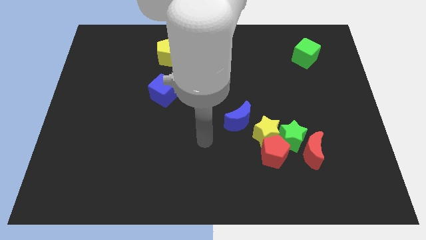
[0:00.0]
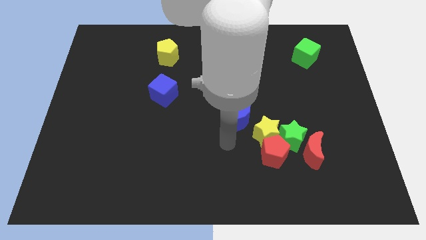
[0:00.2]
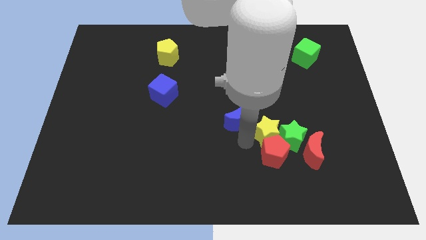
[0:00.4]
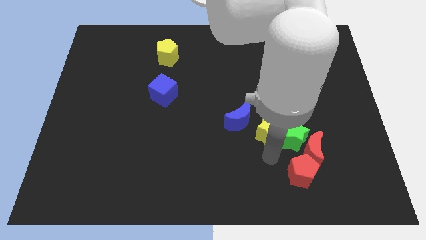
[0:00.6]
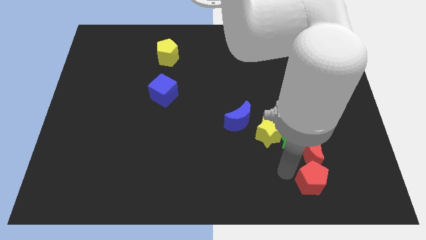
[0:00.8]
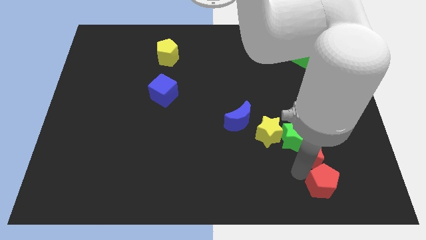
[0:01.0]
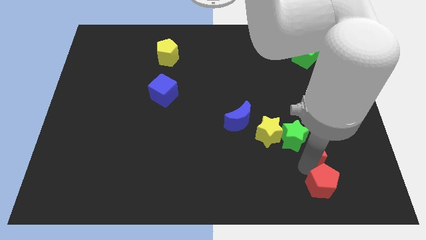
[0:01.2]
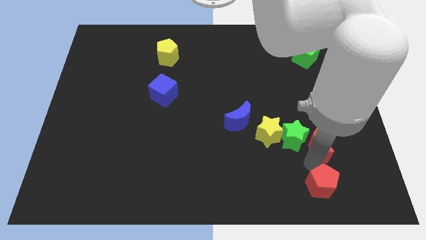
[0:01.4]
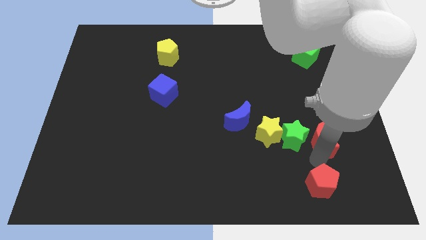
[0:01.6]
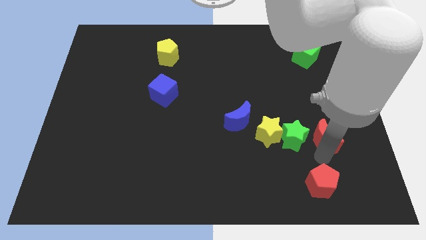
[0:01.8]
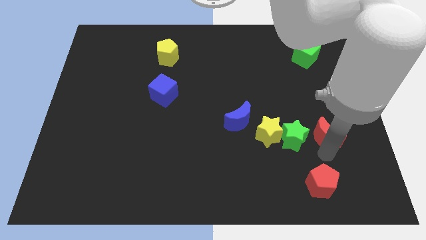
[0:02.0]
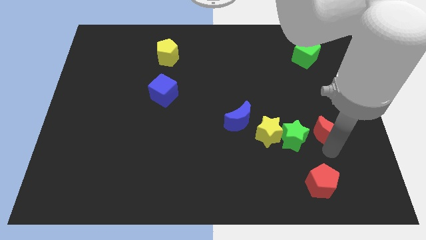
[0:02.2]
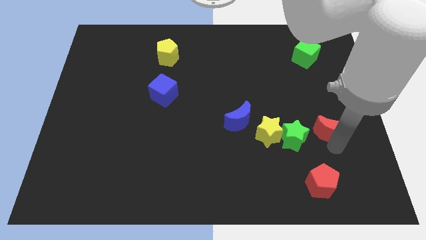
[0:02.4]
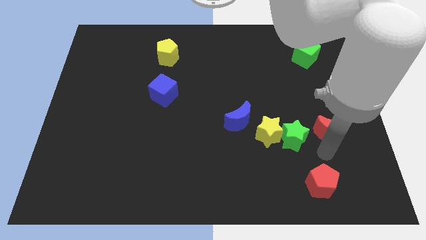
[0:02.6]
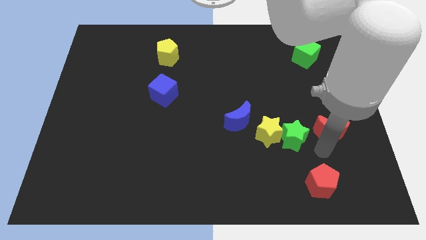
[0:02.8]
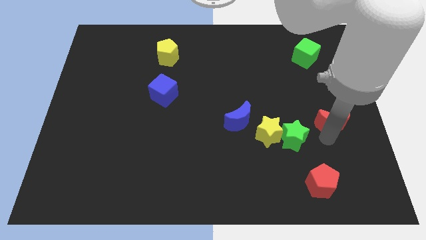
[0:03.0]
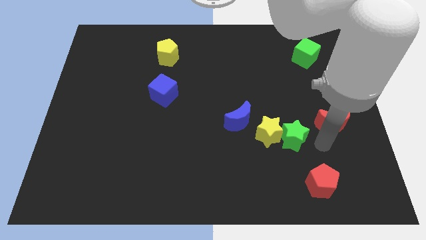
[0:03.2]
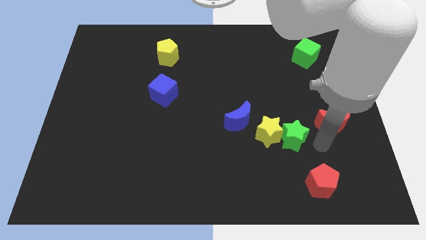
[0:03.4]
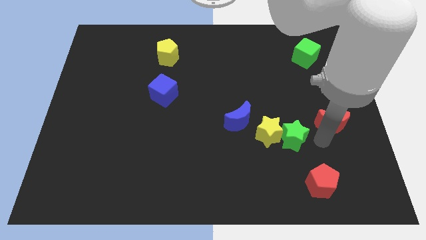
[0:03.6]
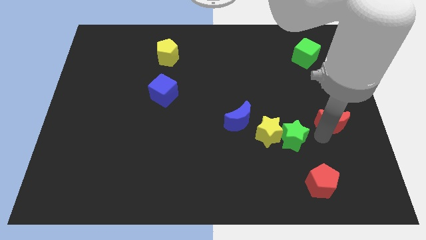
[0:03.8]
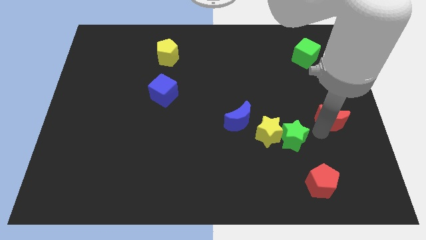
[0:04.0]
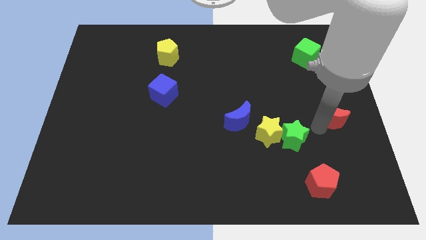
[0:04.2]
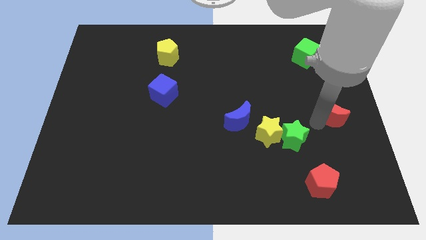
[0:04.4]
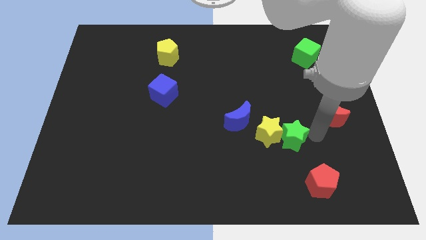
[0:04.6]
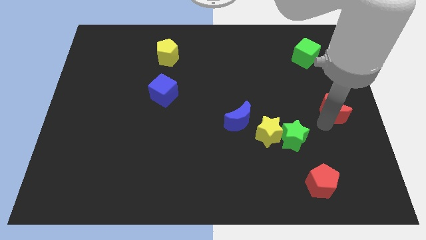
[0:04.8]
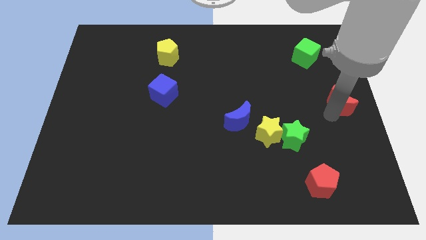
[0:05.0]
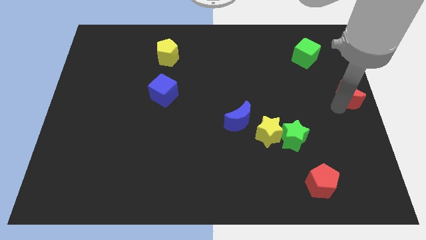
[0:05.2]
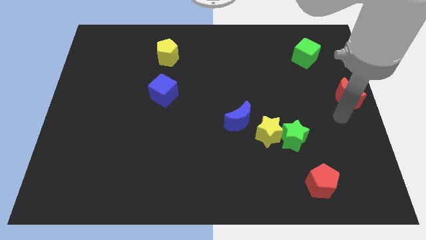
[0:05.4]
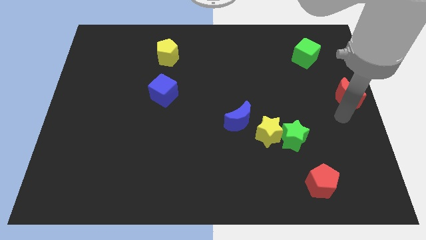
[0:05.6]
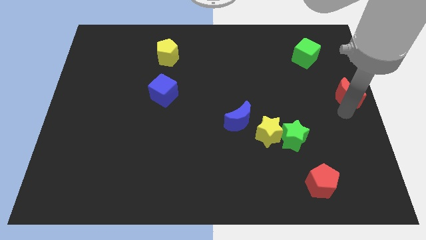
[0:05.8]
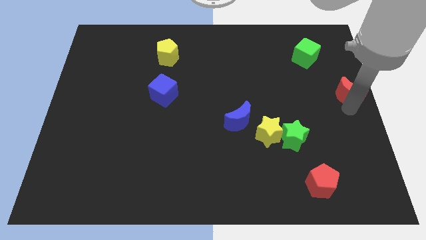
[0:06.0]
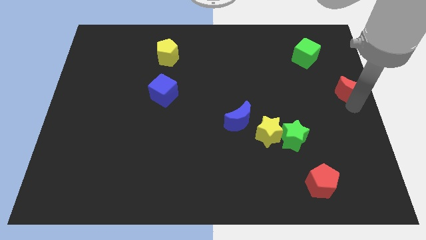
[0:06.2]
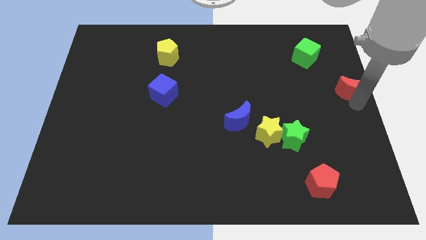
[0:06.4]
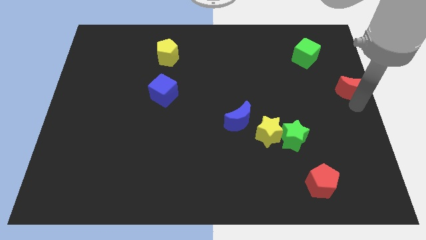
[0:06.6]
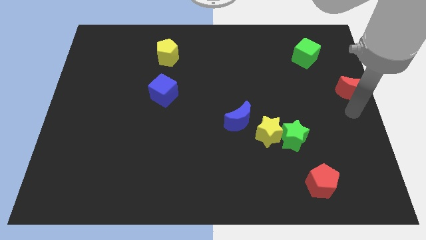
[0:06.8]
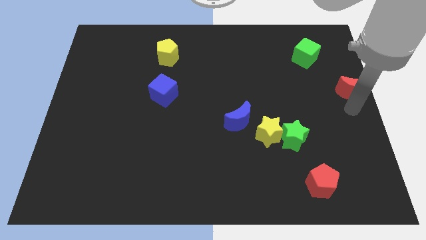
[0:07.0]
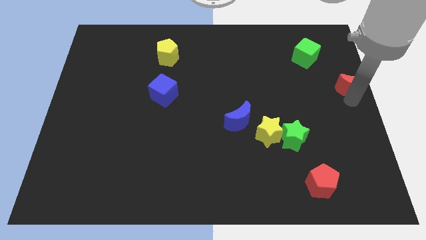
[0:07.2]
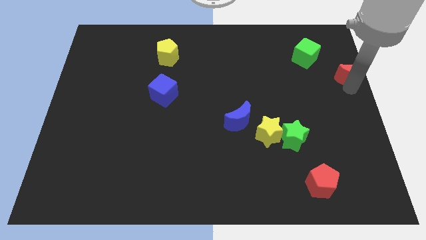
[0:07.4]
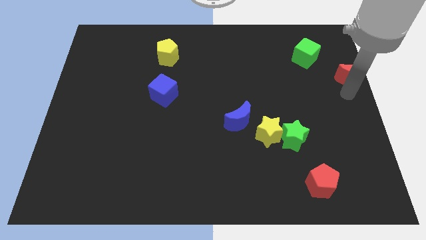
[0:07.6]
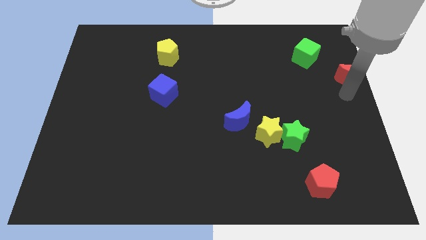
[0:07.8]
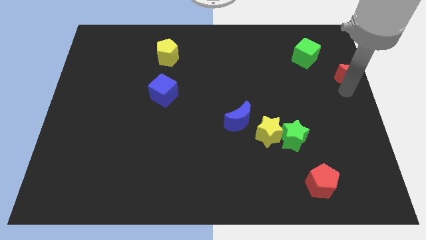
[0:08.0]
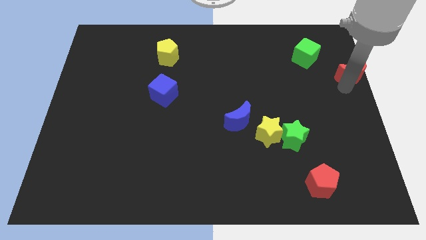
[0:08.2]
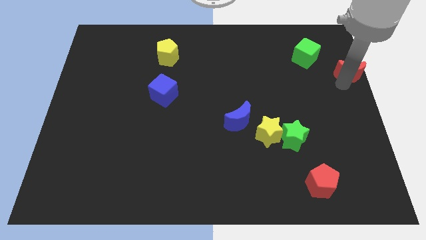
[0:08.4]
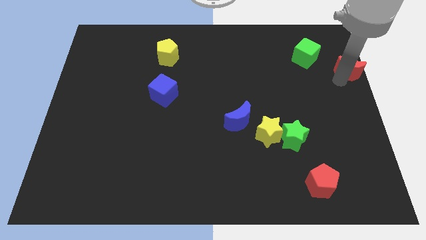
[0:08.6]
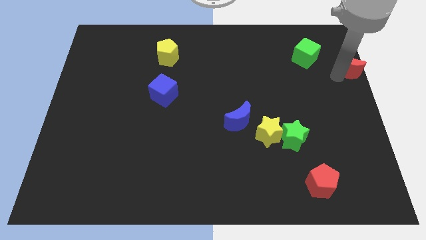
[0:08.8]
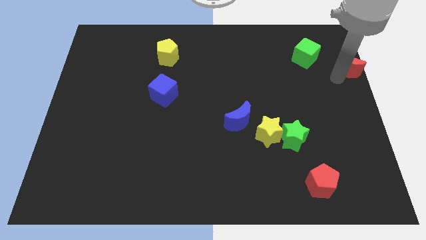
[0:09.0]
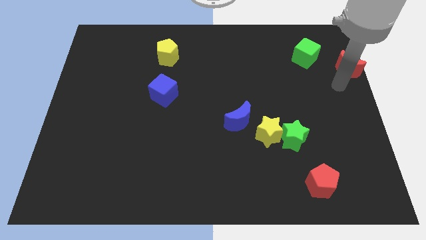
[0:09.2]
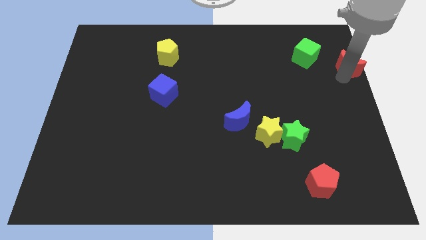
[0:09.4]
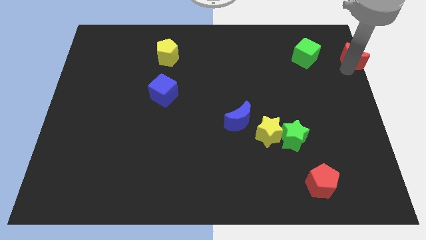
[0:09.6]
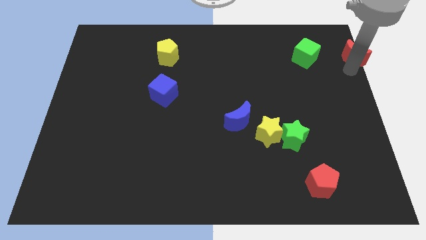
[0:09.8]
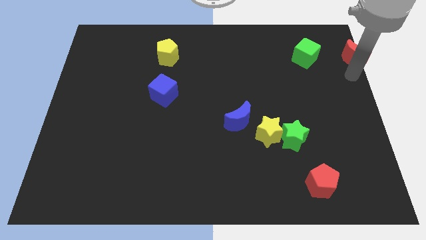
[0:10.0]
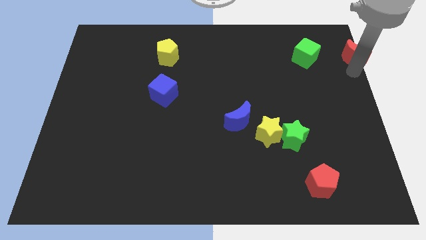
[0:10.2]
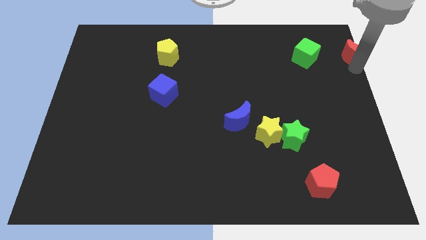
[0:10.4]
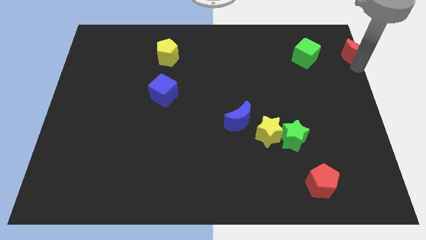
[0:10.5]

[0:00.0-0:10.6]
move the red moon to the top right

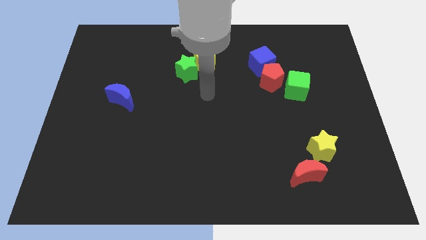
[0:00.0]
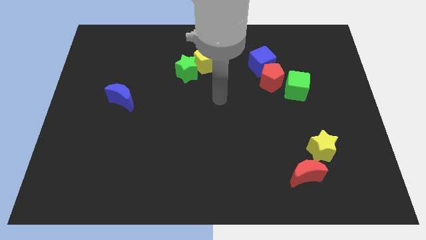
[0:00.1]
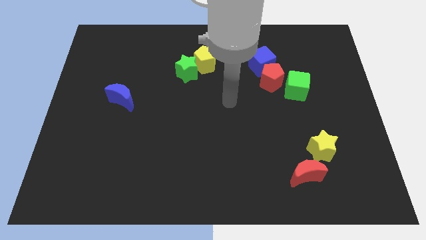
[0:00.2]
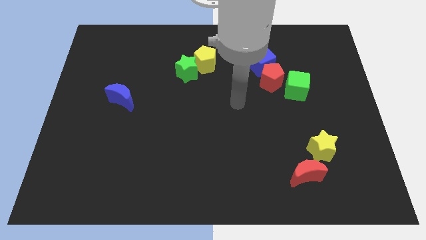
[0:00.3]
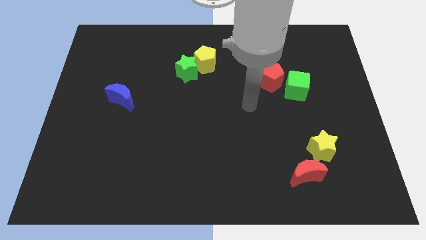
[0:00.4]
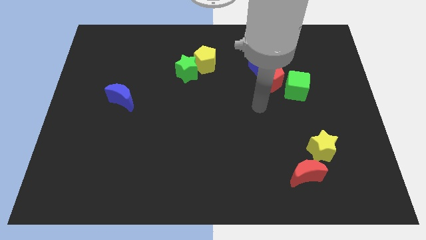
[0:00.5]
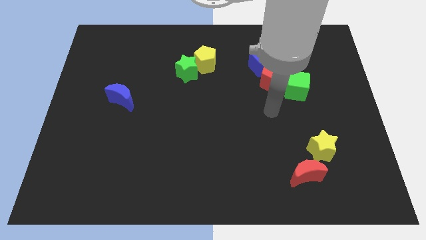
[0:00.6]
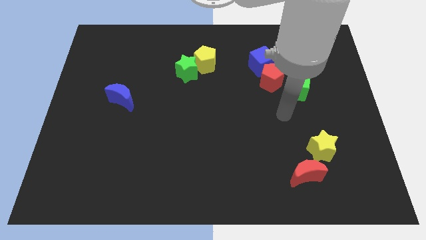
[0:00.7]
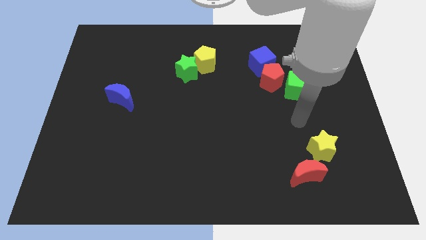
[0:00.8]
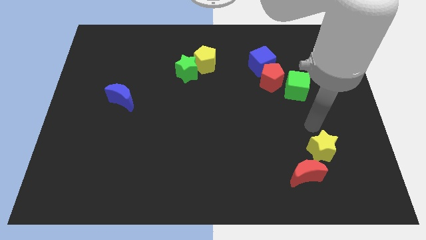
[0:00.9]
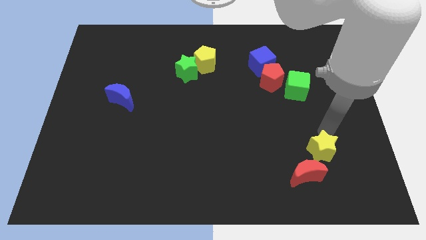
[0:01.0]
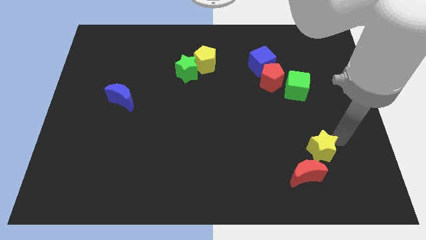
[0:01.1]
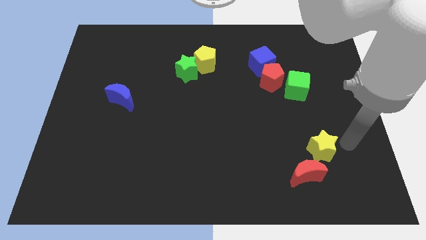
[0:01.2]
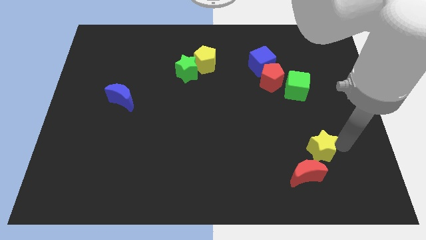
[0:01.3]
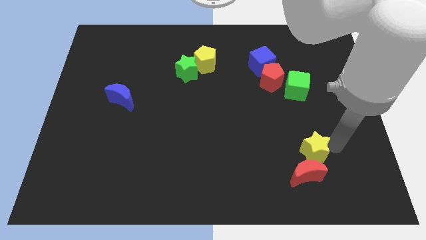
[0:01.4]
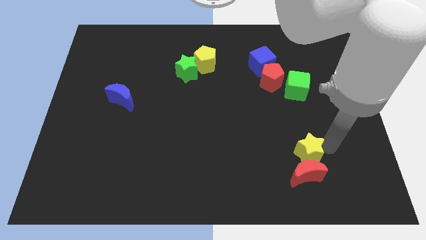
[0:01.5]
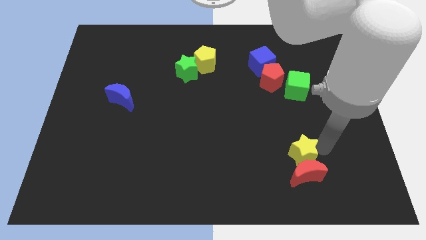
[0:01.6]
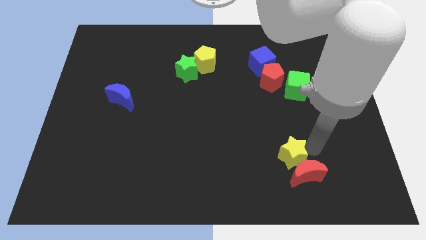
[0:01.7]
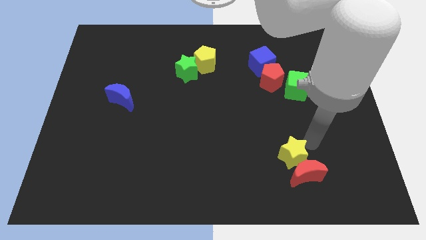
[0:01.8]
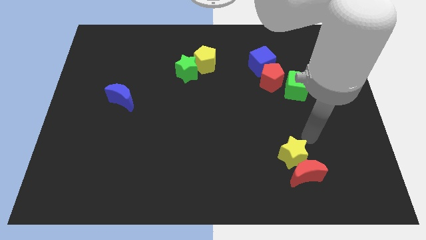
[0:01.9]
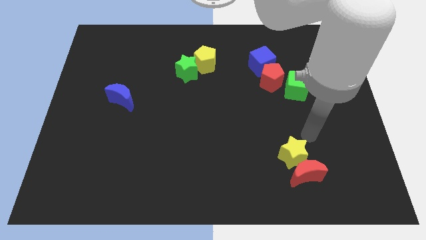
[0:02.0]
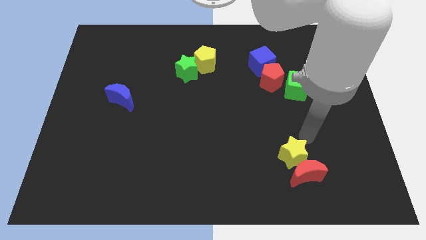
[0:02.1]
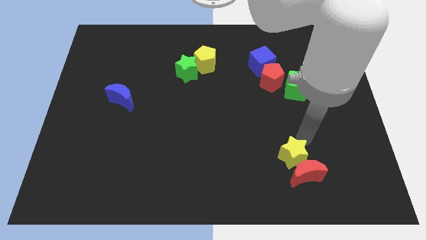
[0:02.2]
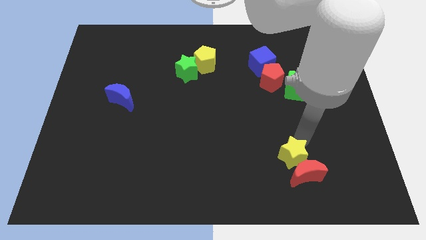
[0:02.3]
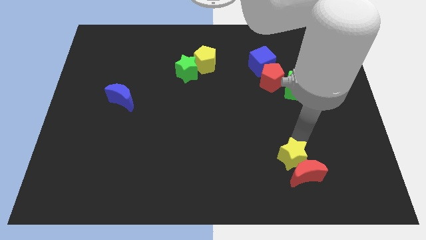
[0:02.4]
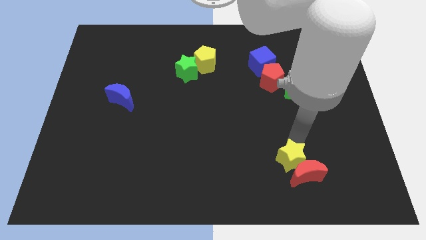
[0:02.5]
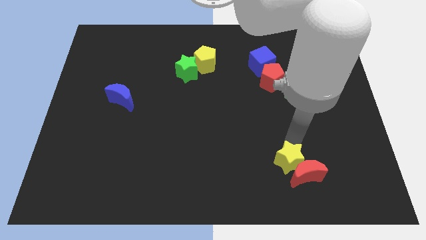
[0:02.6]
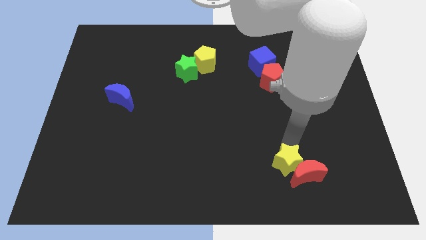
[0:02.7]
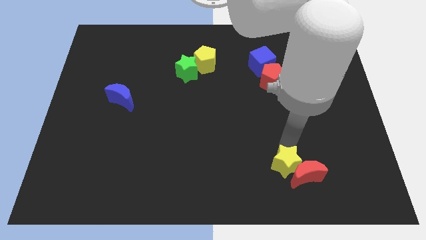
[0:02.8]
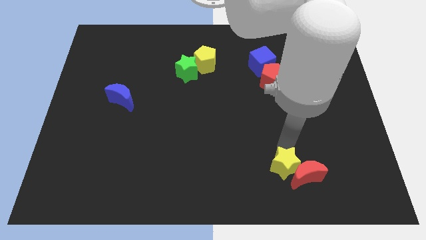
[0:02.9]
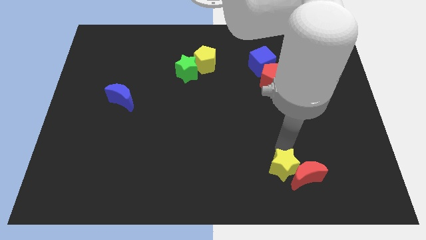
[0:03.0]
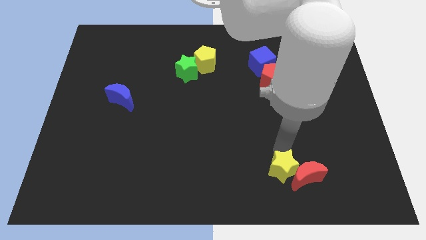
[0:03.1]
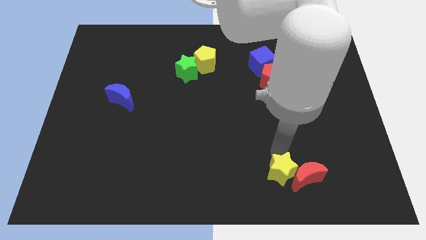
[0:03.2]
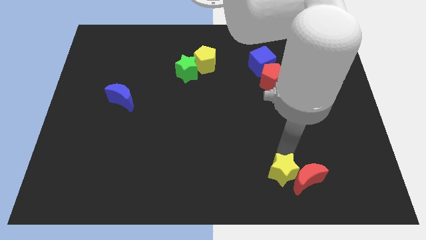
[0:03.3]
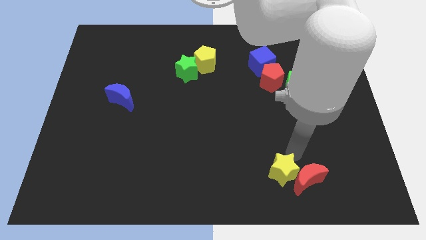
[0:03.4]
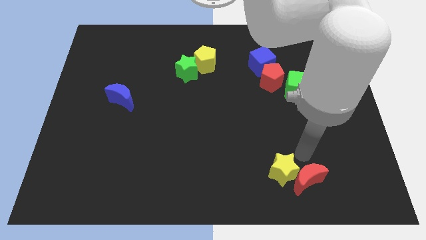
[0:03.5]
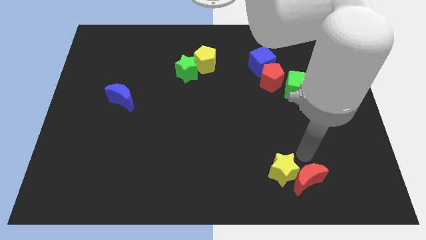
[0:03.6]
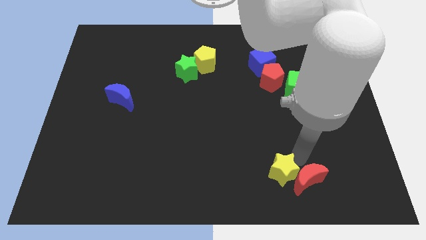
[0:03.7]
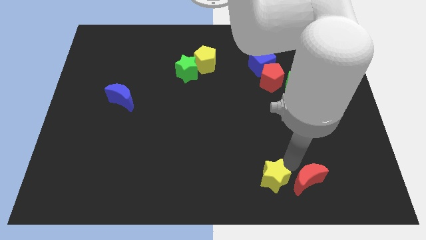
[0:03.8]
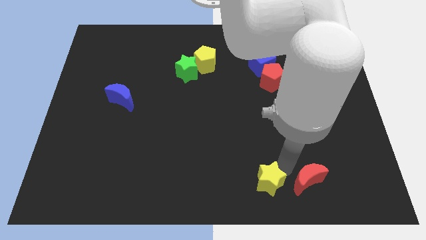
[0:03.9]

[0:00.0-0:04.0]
put the yellow star to the bottom
